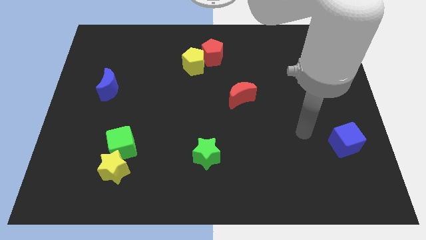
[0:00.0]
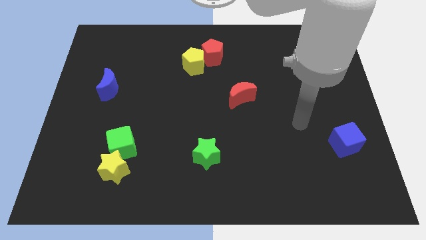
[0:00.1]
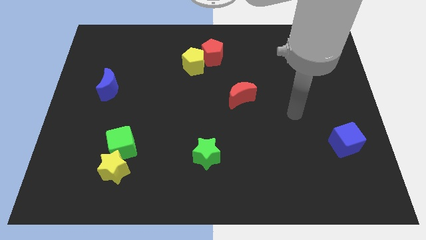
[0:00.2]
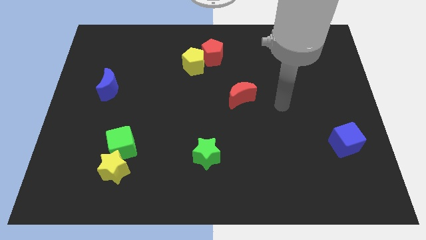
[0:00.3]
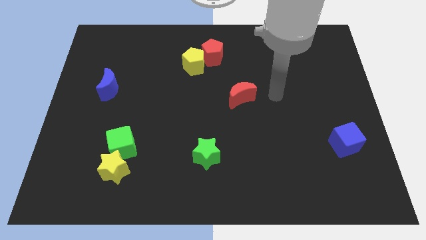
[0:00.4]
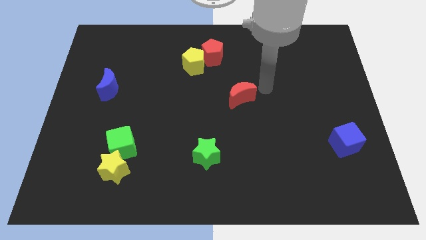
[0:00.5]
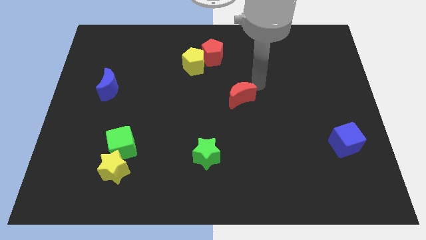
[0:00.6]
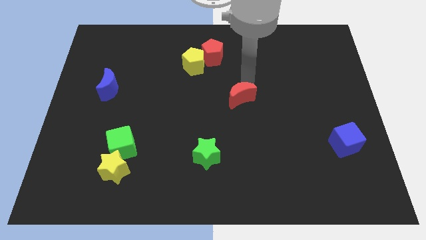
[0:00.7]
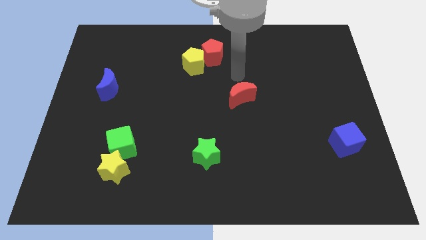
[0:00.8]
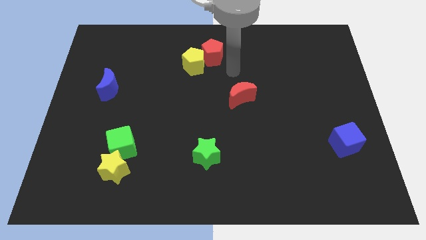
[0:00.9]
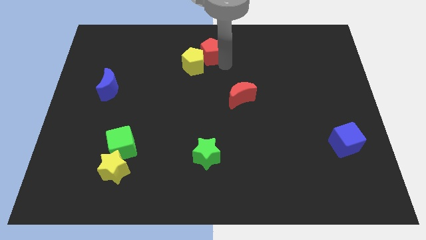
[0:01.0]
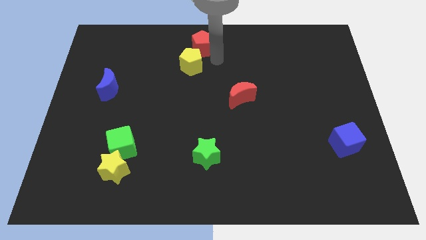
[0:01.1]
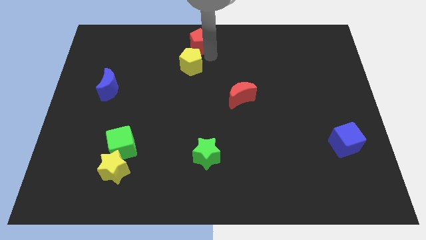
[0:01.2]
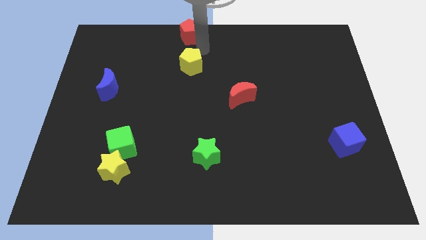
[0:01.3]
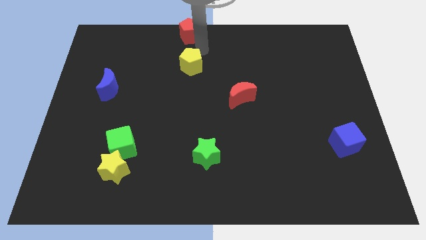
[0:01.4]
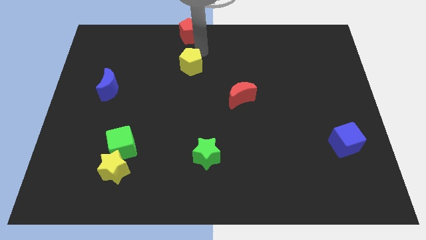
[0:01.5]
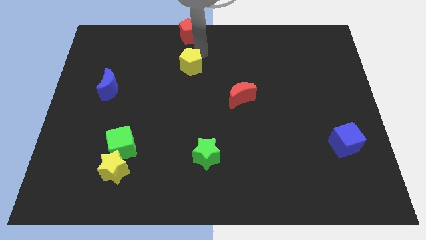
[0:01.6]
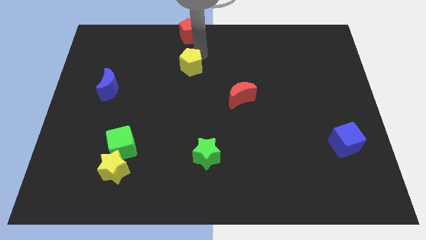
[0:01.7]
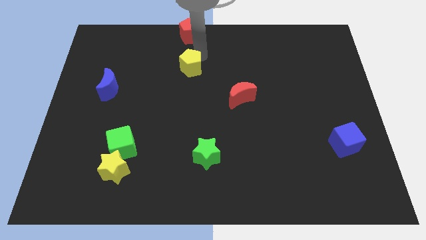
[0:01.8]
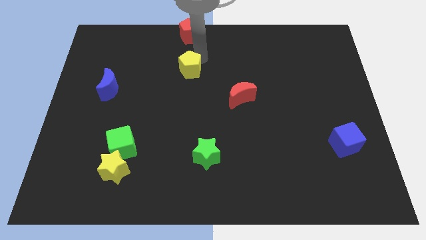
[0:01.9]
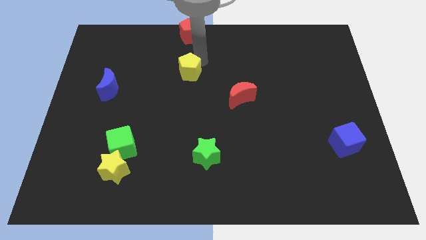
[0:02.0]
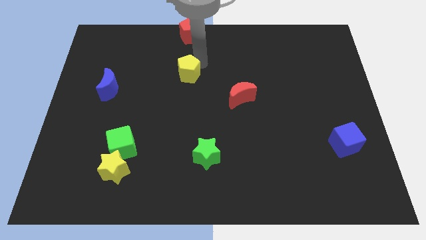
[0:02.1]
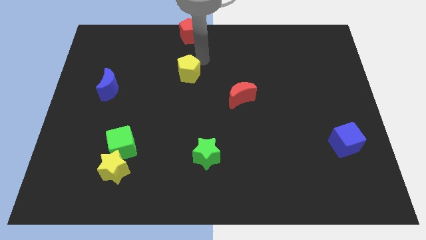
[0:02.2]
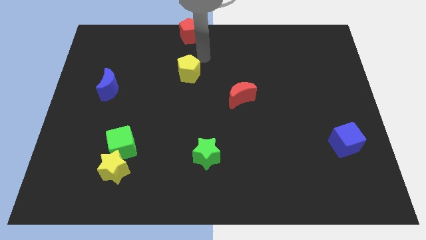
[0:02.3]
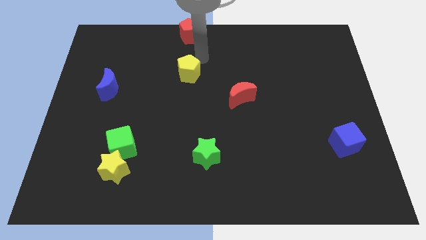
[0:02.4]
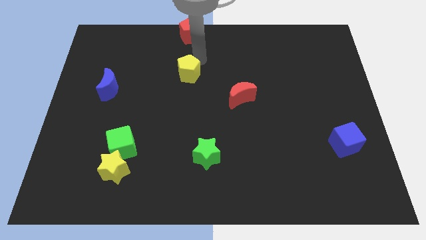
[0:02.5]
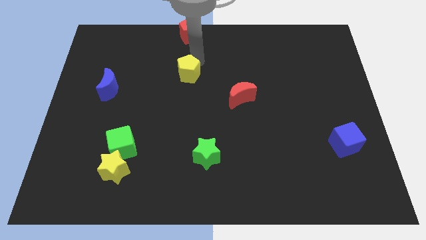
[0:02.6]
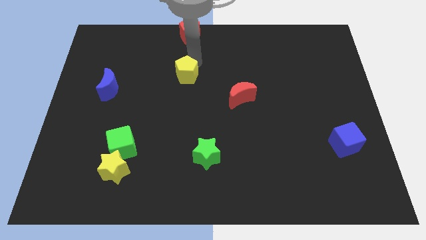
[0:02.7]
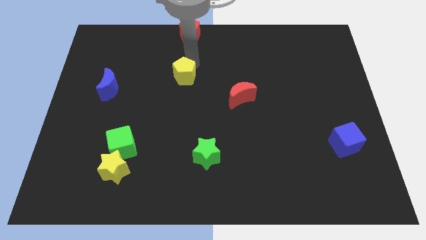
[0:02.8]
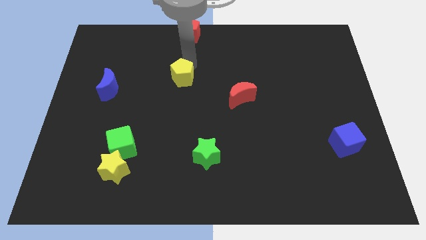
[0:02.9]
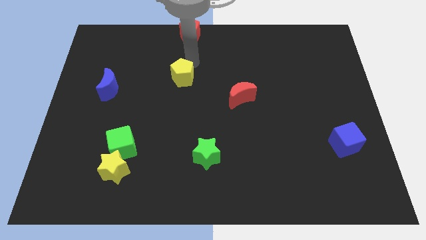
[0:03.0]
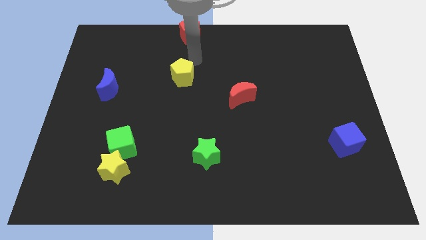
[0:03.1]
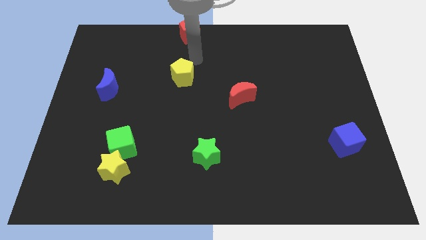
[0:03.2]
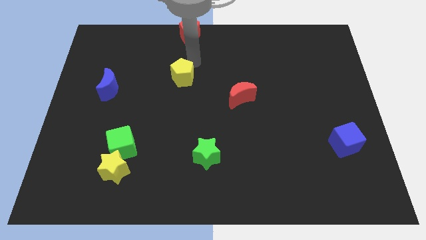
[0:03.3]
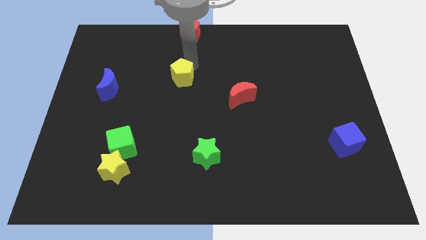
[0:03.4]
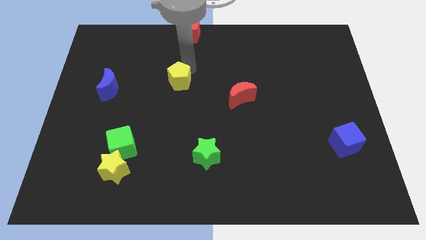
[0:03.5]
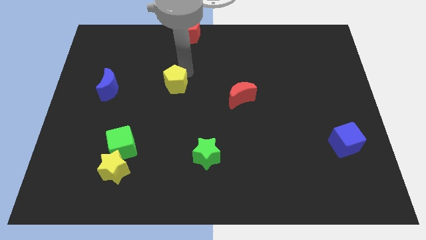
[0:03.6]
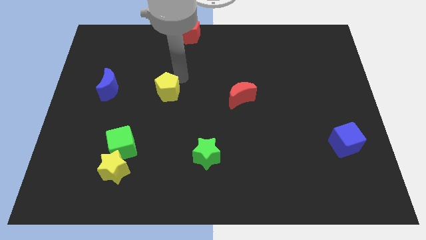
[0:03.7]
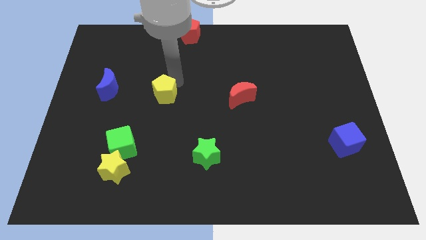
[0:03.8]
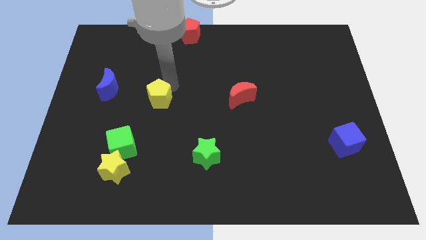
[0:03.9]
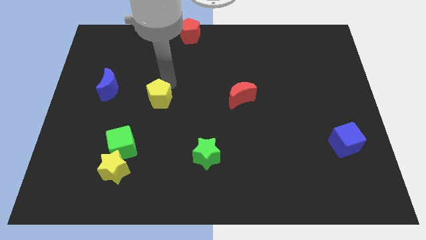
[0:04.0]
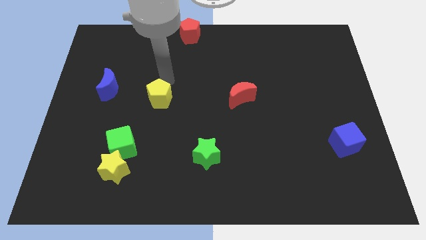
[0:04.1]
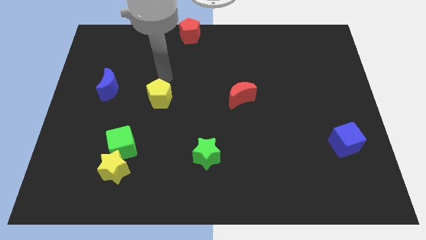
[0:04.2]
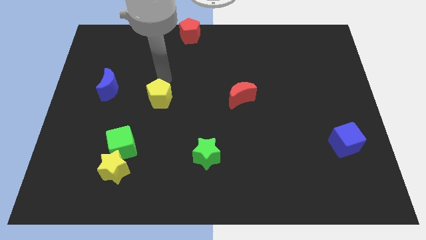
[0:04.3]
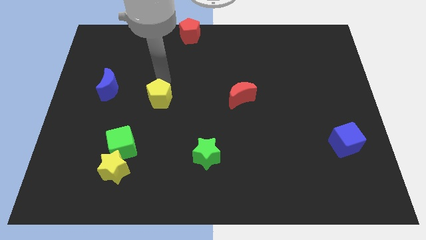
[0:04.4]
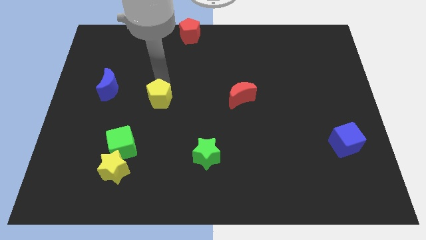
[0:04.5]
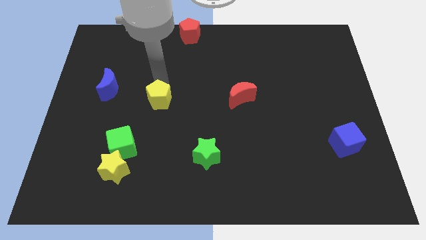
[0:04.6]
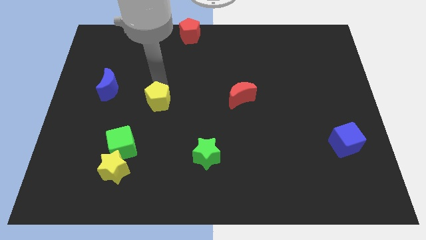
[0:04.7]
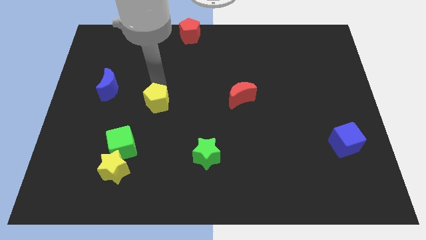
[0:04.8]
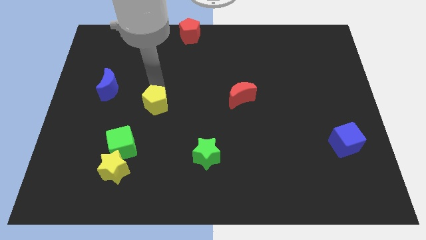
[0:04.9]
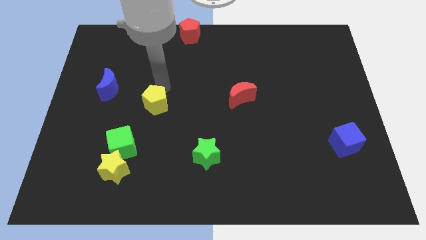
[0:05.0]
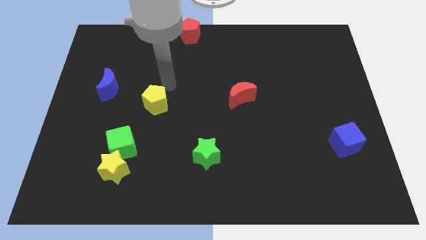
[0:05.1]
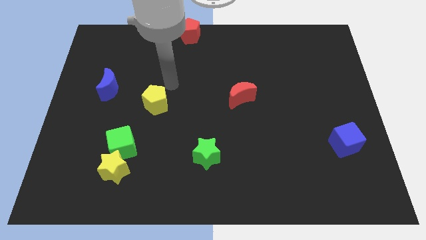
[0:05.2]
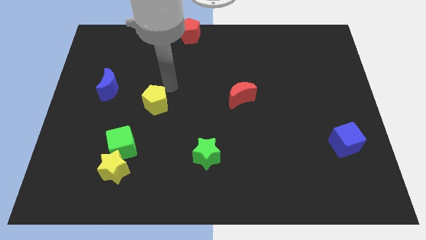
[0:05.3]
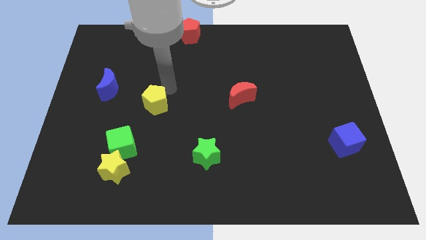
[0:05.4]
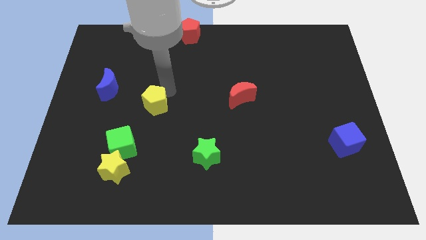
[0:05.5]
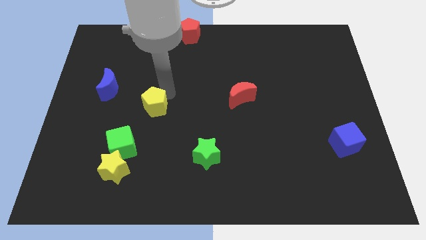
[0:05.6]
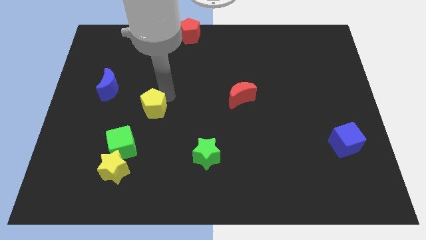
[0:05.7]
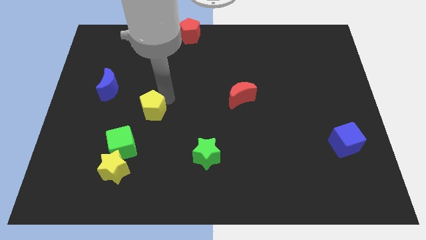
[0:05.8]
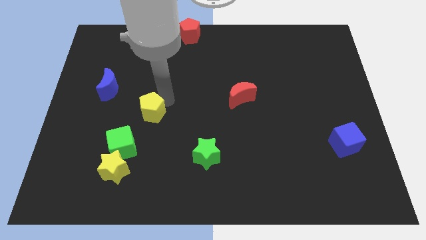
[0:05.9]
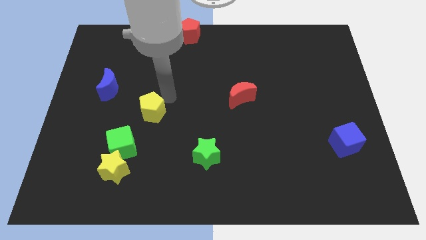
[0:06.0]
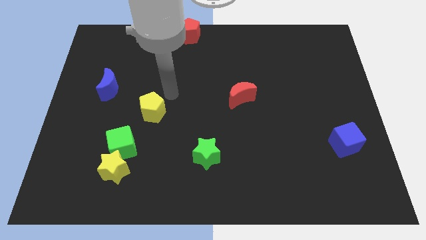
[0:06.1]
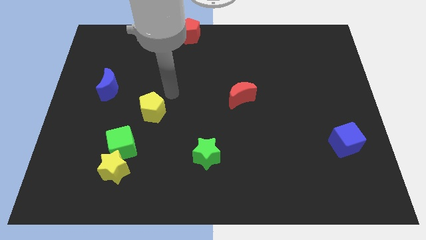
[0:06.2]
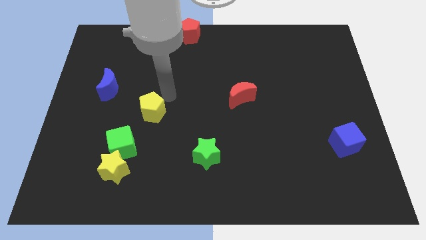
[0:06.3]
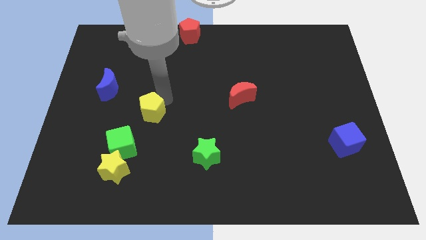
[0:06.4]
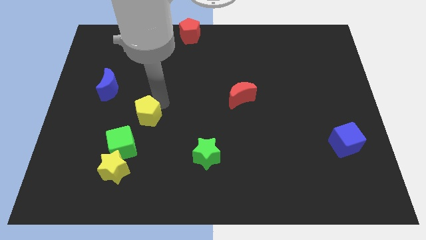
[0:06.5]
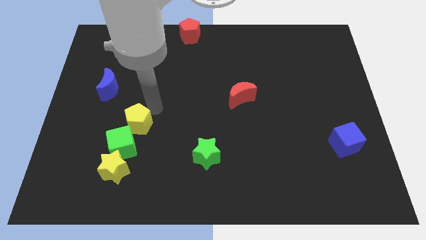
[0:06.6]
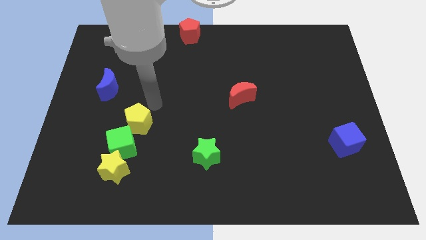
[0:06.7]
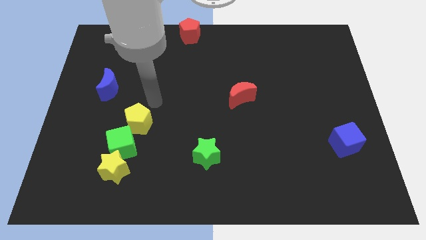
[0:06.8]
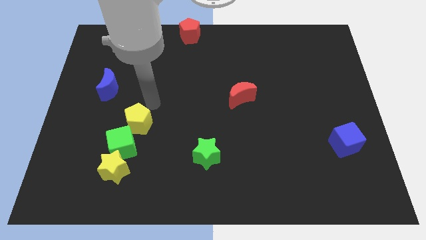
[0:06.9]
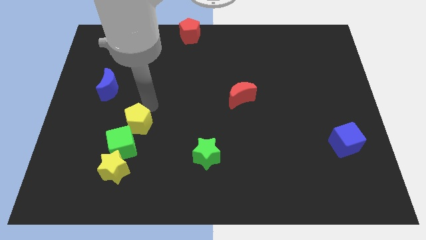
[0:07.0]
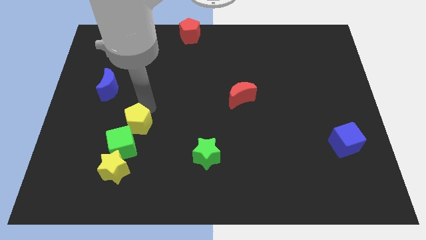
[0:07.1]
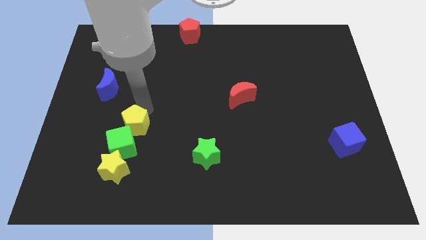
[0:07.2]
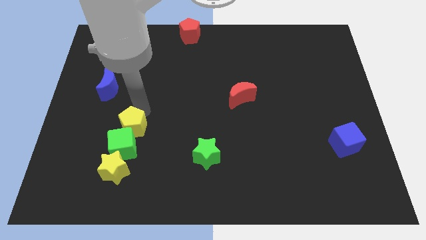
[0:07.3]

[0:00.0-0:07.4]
put the yellow pentagon close to the green cube
